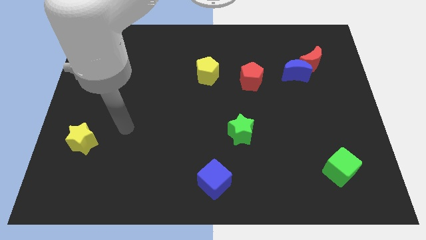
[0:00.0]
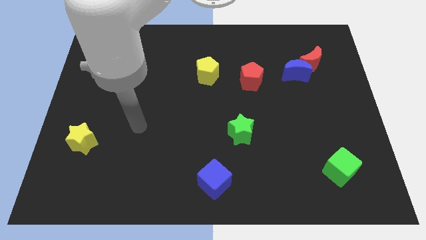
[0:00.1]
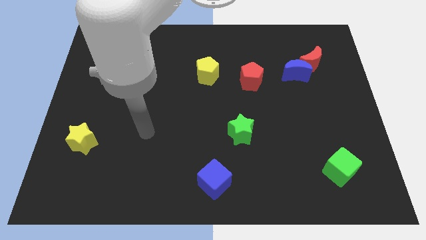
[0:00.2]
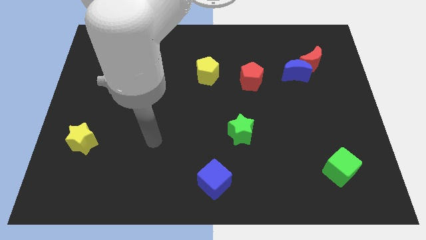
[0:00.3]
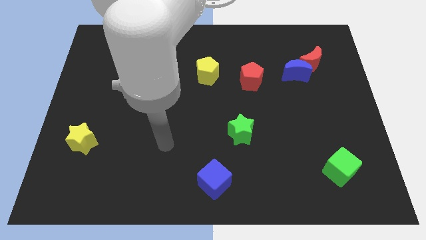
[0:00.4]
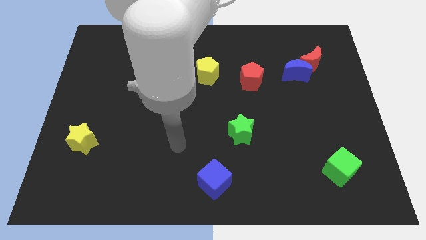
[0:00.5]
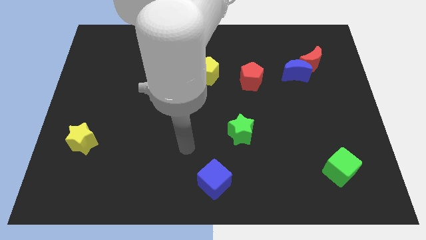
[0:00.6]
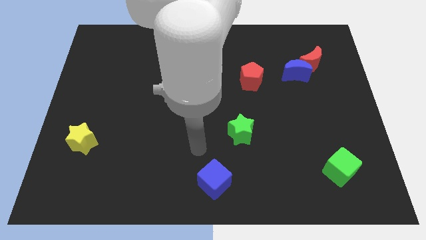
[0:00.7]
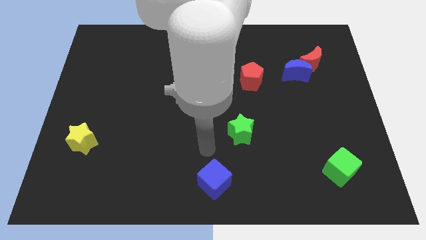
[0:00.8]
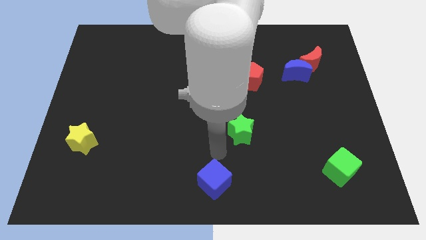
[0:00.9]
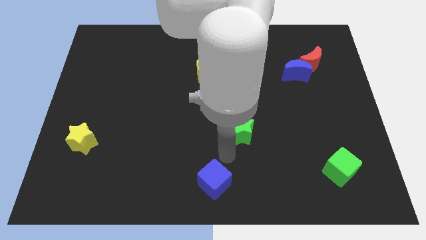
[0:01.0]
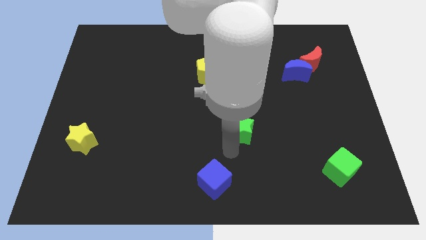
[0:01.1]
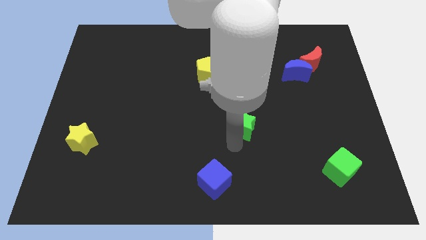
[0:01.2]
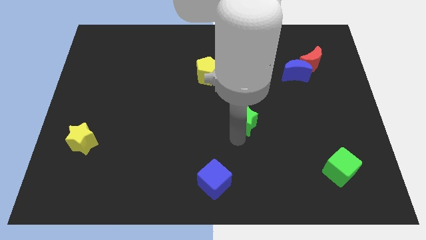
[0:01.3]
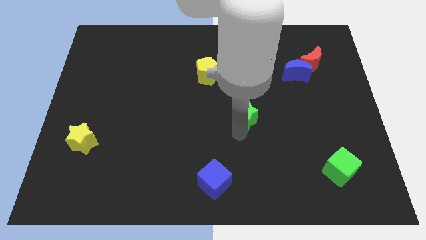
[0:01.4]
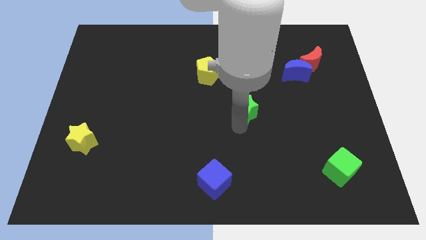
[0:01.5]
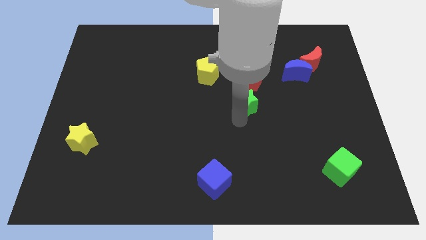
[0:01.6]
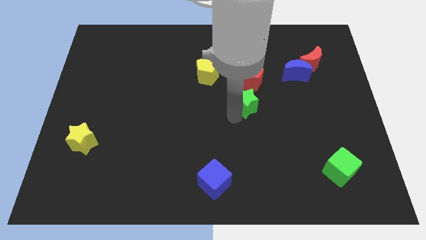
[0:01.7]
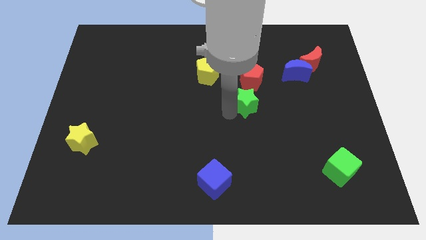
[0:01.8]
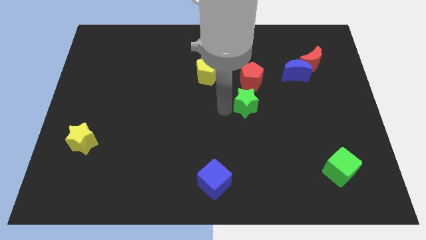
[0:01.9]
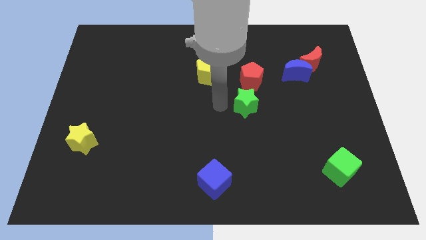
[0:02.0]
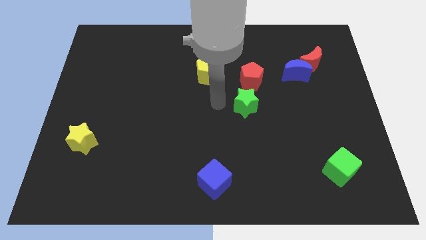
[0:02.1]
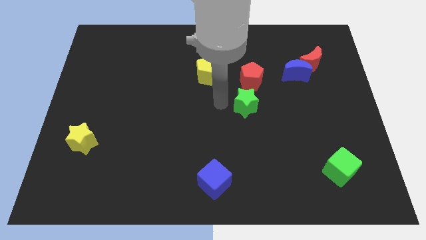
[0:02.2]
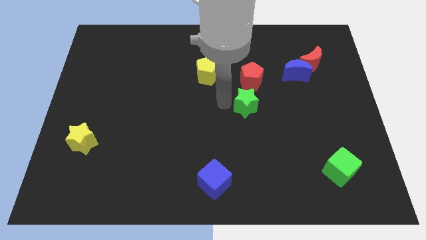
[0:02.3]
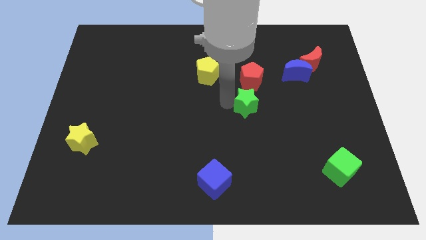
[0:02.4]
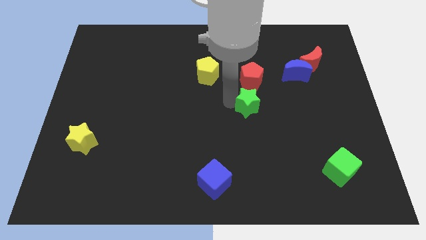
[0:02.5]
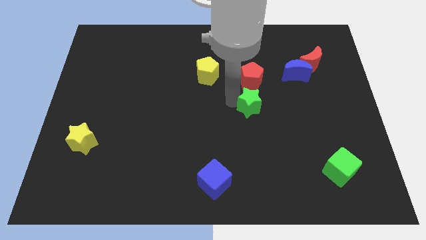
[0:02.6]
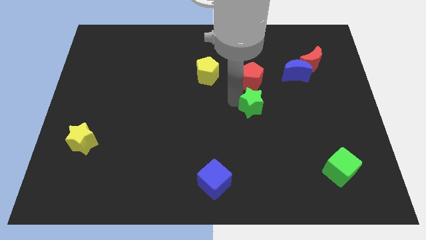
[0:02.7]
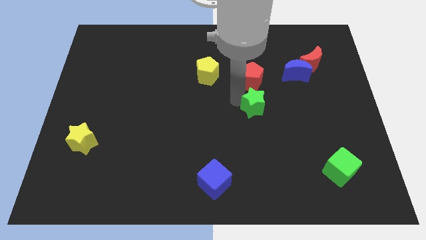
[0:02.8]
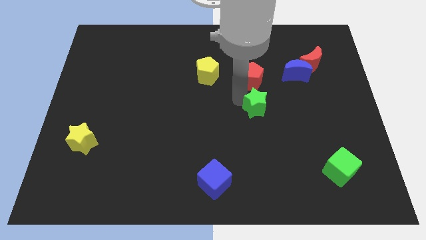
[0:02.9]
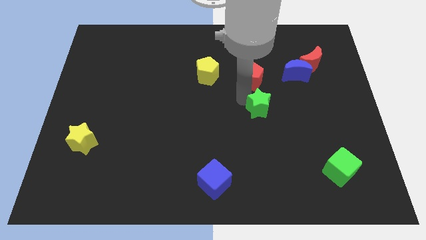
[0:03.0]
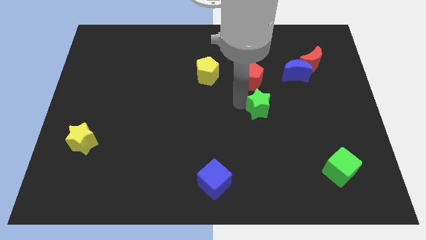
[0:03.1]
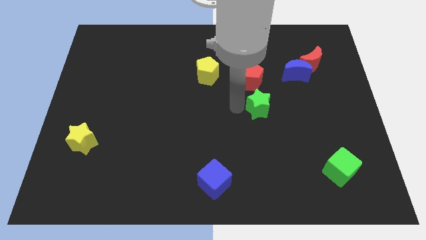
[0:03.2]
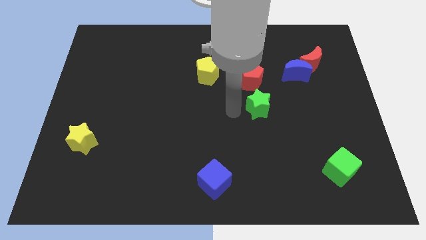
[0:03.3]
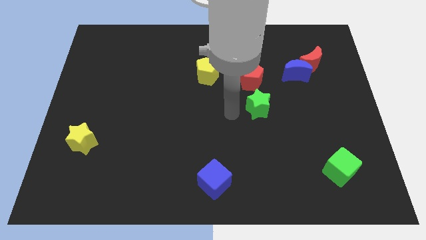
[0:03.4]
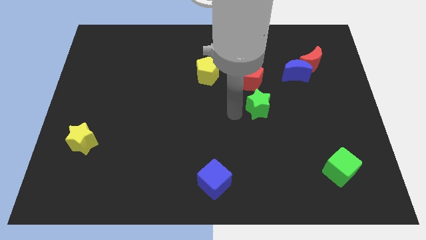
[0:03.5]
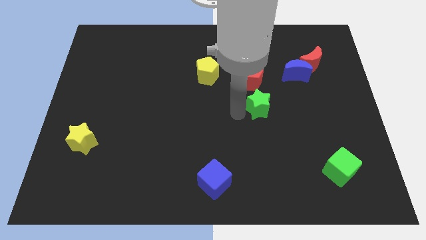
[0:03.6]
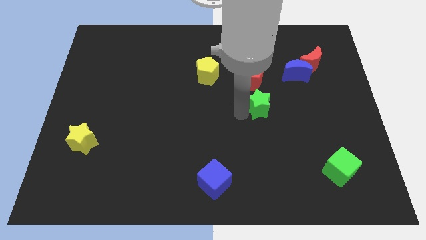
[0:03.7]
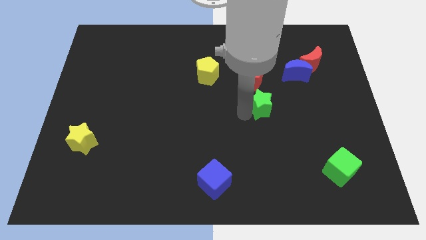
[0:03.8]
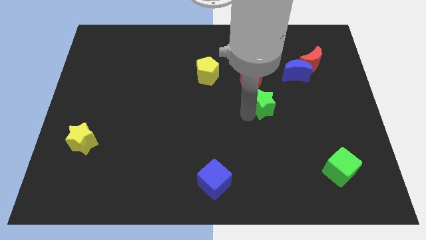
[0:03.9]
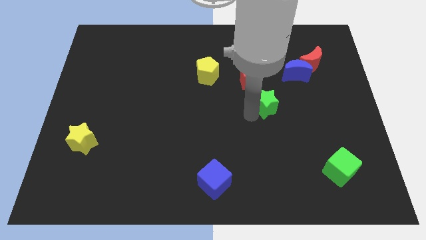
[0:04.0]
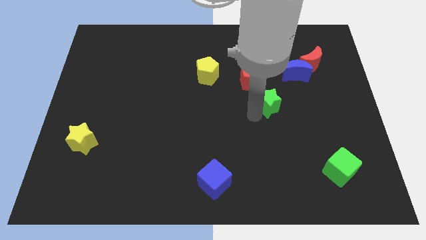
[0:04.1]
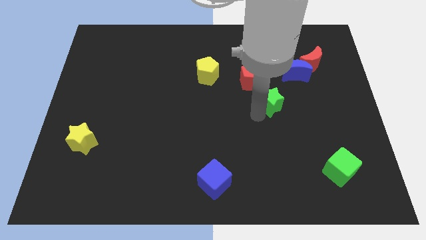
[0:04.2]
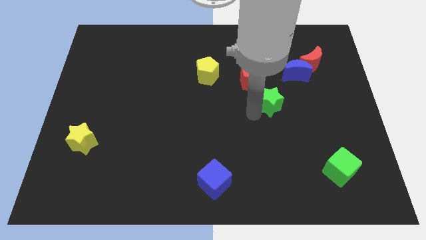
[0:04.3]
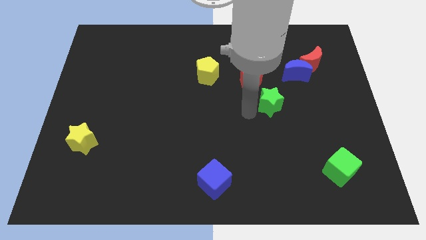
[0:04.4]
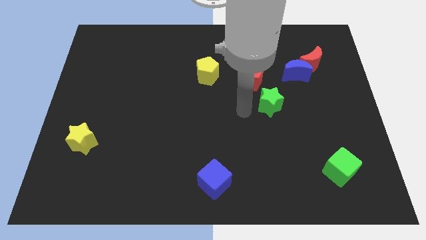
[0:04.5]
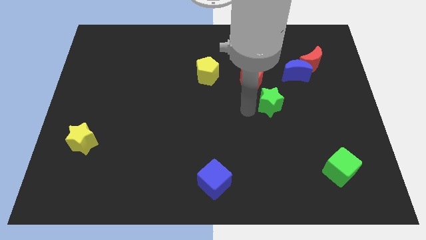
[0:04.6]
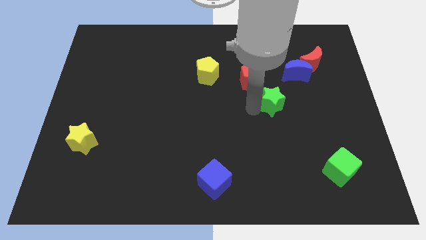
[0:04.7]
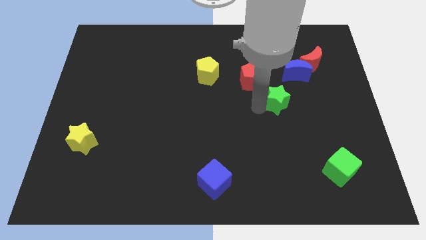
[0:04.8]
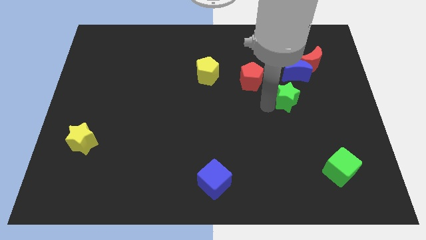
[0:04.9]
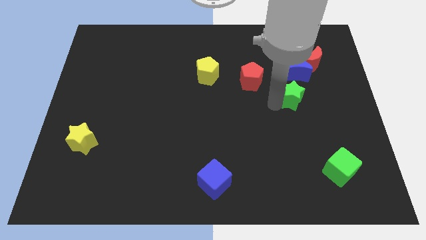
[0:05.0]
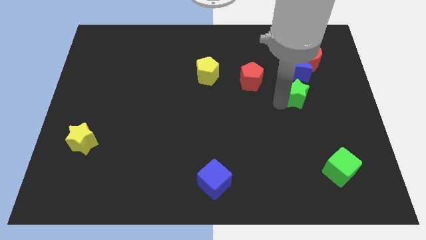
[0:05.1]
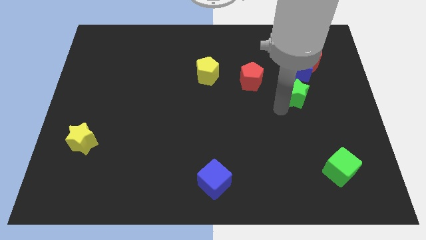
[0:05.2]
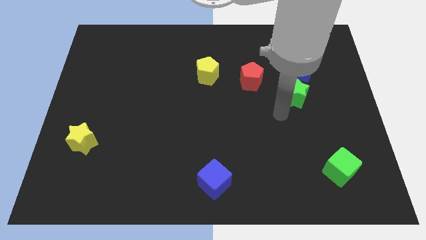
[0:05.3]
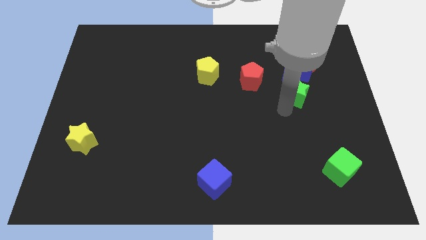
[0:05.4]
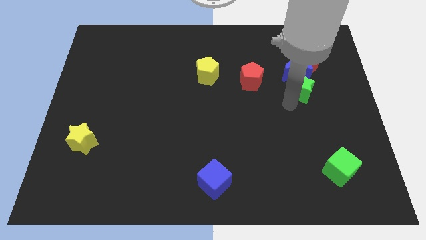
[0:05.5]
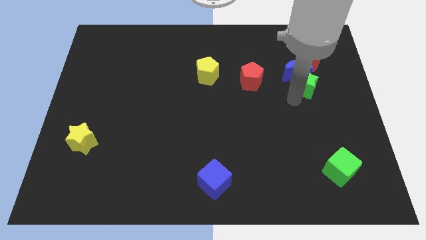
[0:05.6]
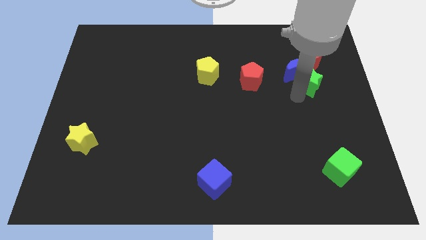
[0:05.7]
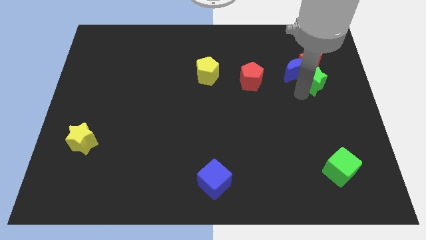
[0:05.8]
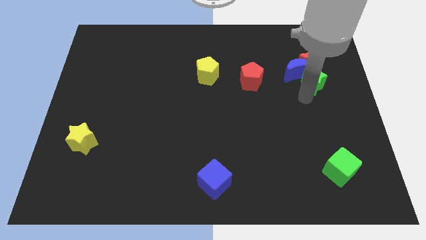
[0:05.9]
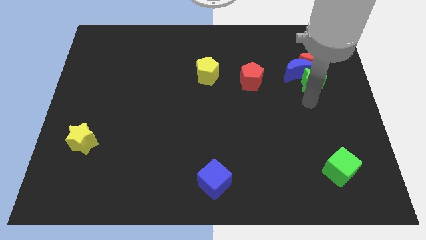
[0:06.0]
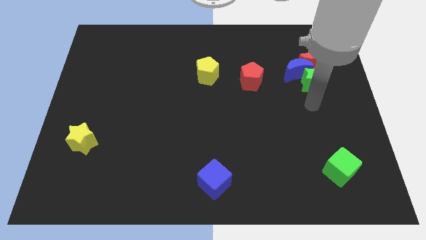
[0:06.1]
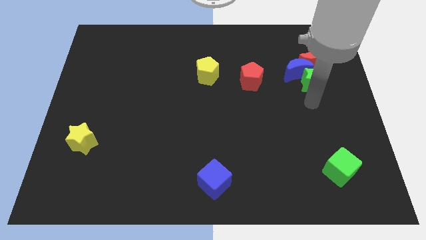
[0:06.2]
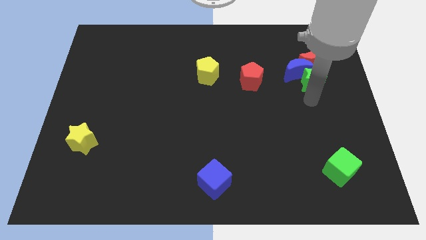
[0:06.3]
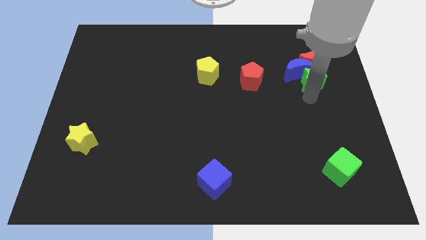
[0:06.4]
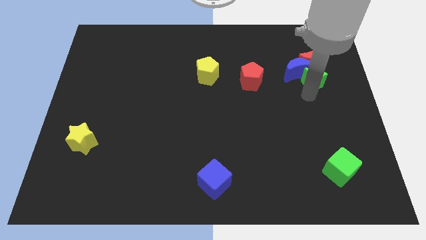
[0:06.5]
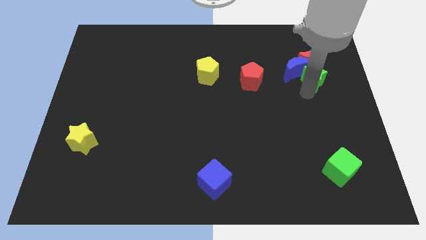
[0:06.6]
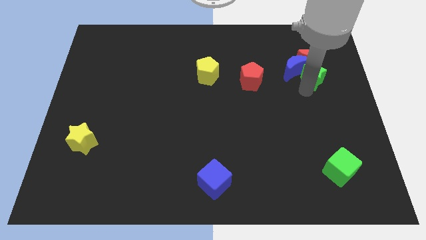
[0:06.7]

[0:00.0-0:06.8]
slide the green star next to the red moon
